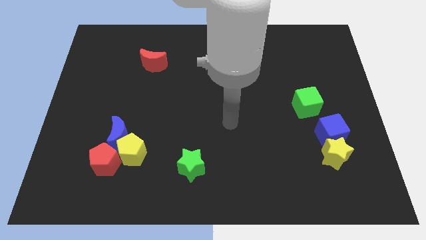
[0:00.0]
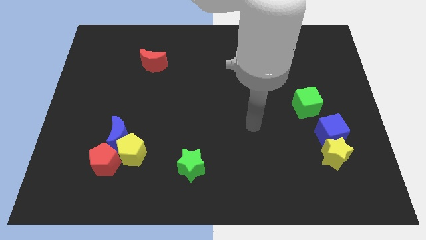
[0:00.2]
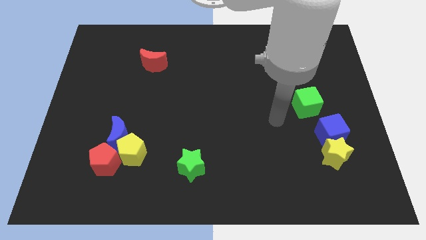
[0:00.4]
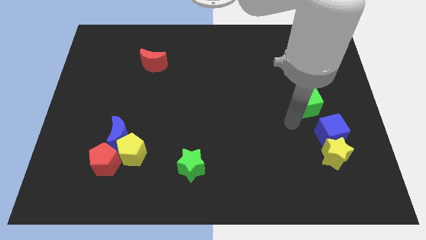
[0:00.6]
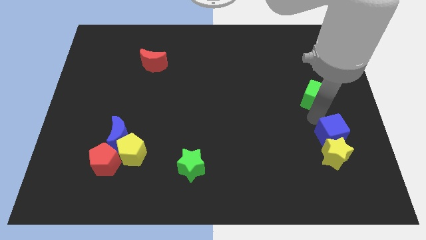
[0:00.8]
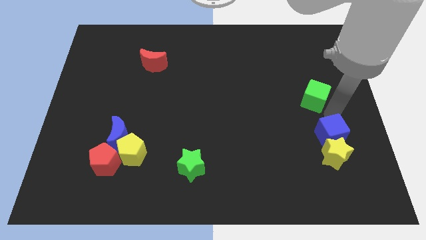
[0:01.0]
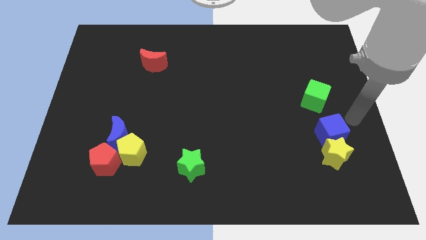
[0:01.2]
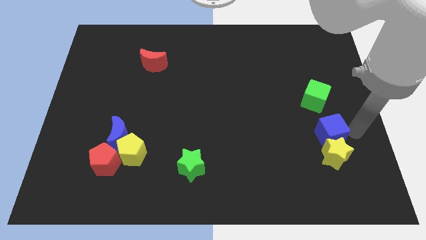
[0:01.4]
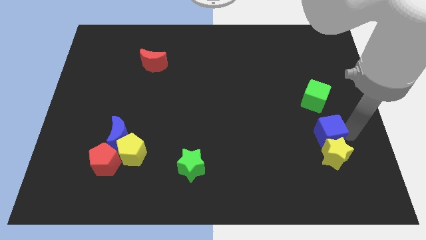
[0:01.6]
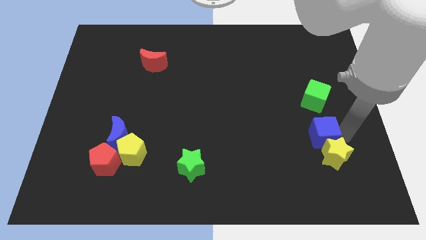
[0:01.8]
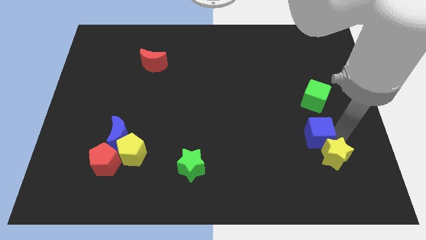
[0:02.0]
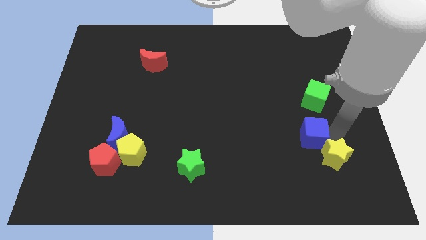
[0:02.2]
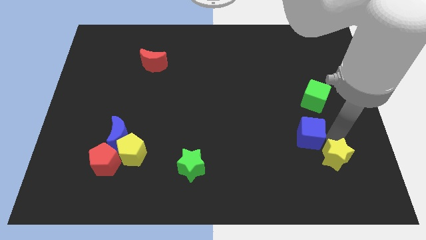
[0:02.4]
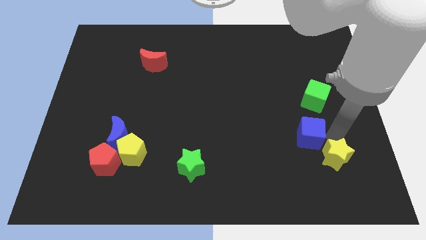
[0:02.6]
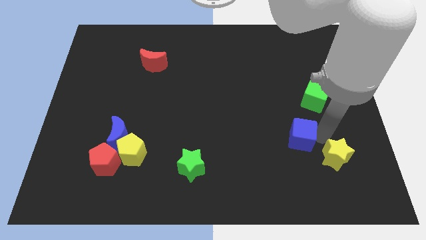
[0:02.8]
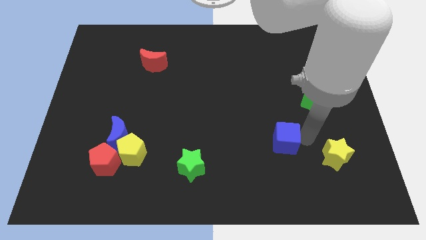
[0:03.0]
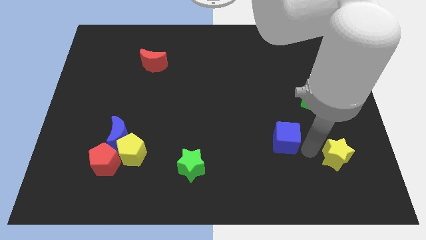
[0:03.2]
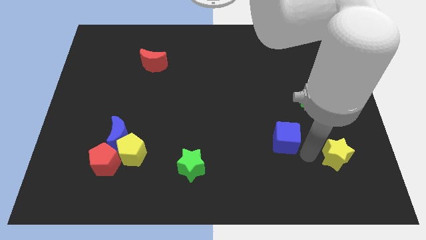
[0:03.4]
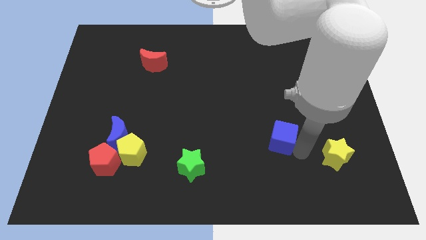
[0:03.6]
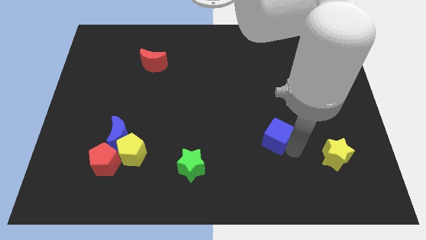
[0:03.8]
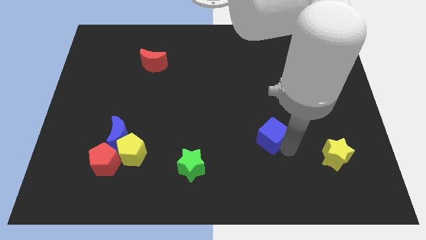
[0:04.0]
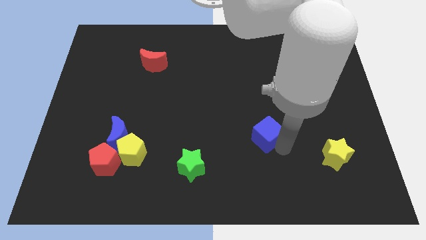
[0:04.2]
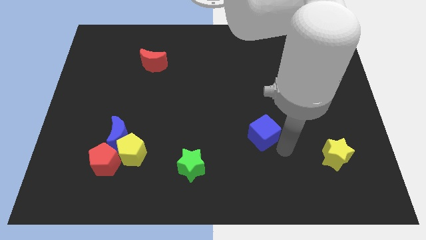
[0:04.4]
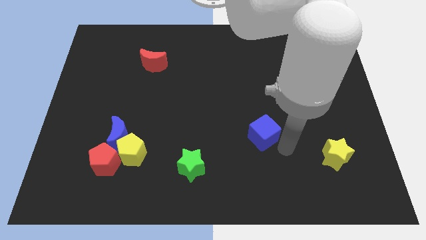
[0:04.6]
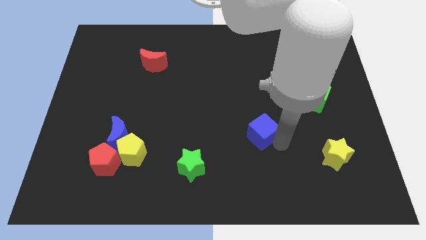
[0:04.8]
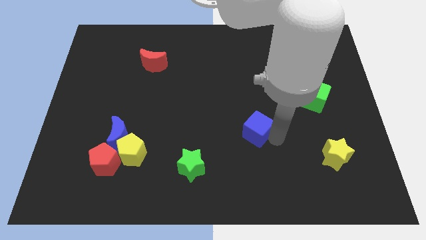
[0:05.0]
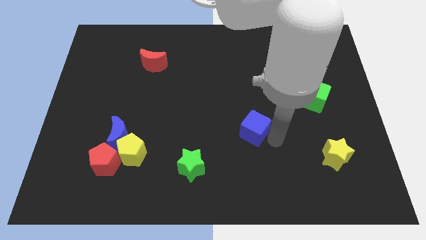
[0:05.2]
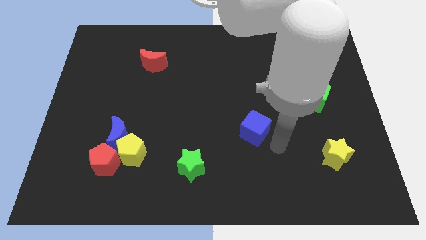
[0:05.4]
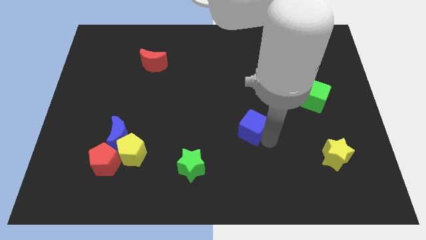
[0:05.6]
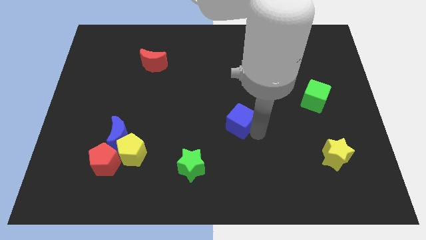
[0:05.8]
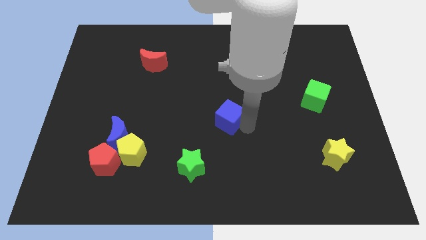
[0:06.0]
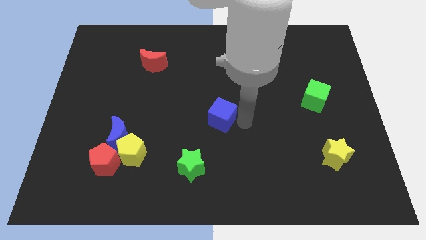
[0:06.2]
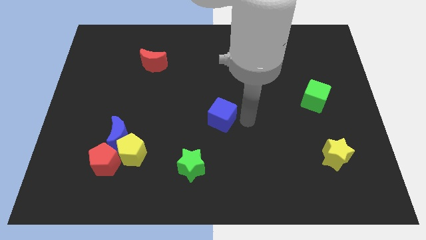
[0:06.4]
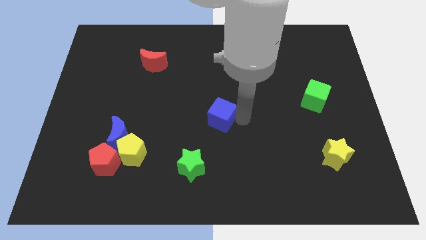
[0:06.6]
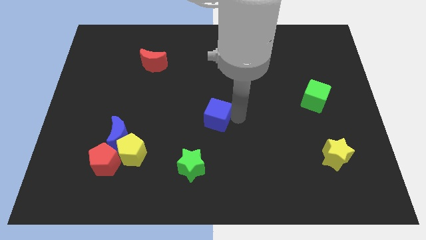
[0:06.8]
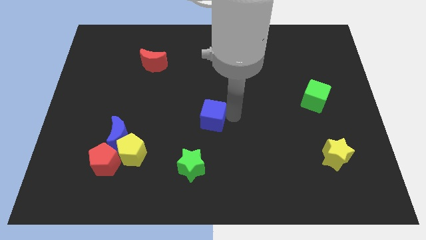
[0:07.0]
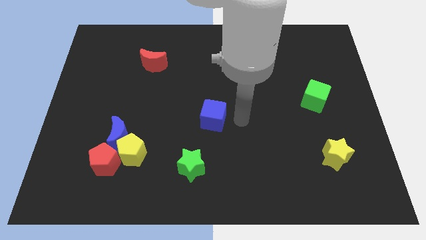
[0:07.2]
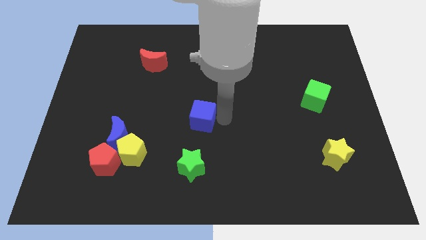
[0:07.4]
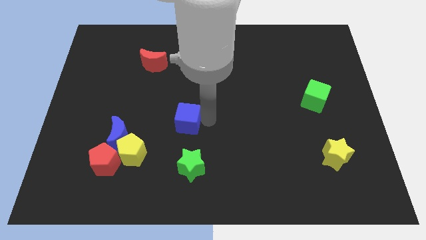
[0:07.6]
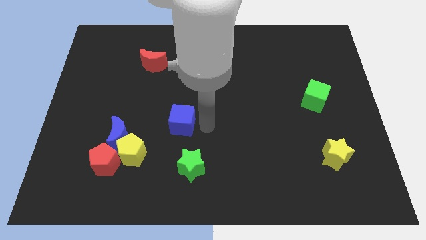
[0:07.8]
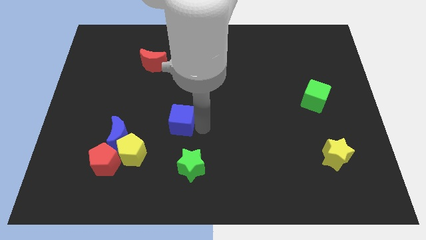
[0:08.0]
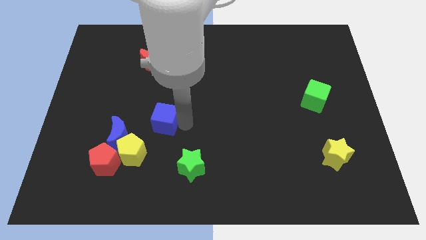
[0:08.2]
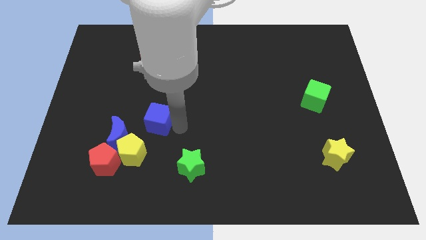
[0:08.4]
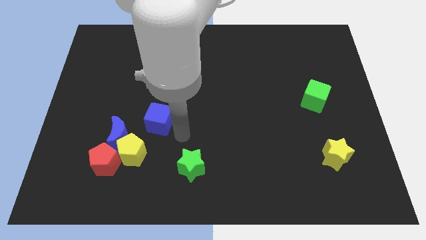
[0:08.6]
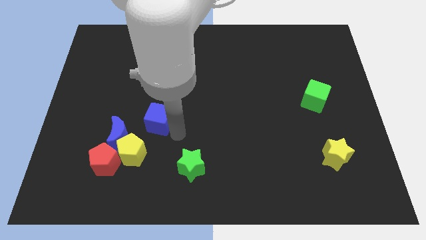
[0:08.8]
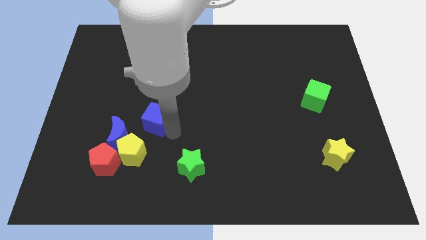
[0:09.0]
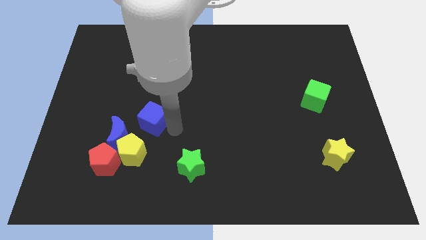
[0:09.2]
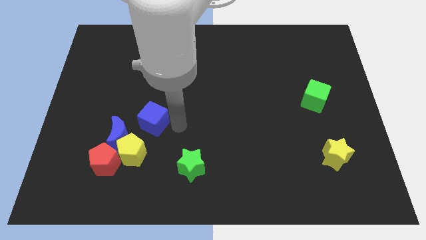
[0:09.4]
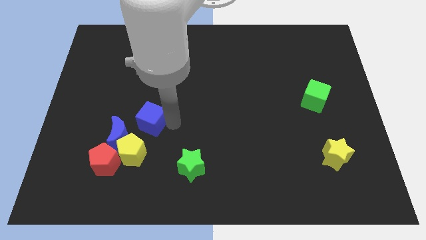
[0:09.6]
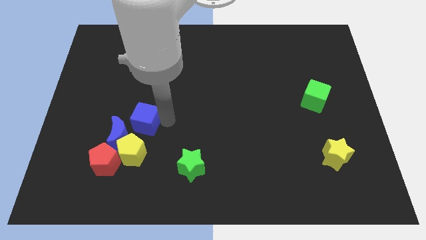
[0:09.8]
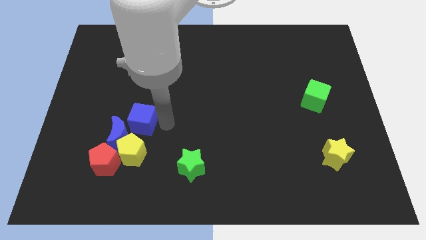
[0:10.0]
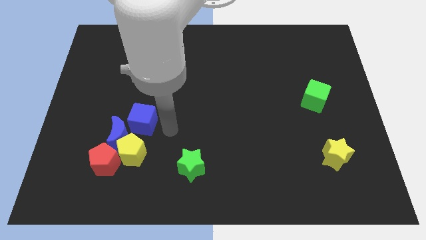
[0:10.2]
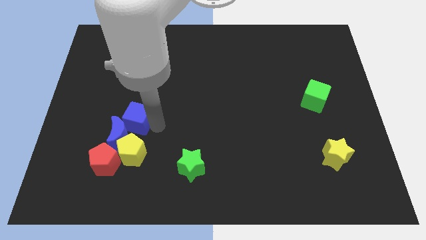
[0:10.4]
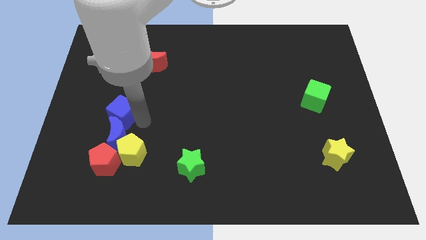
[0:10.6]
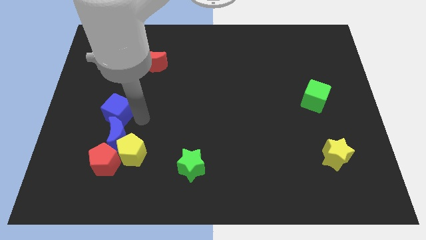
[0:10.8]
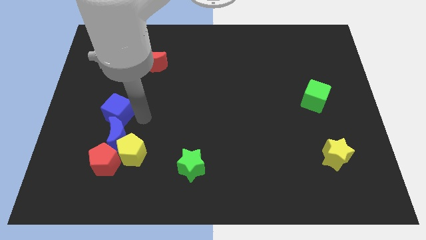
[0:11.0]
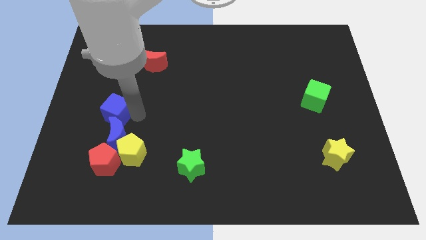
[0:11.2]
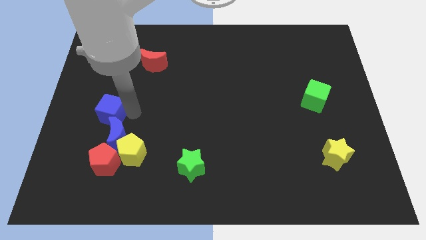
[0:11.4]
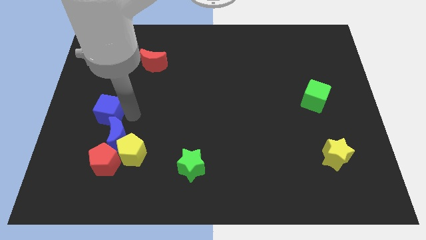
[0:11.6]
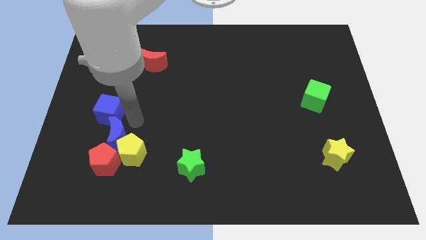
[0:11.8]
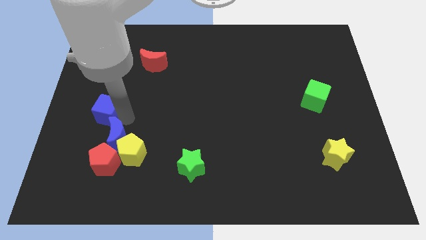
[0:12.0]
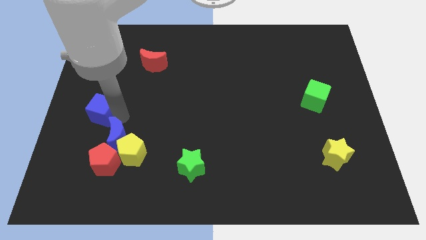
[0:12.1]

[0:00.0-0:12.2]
push the blue cube to the center left
